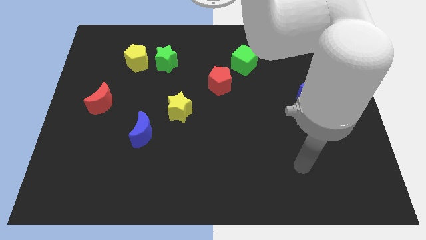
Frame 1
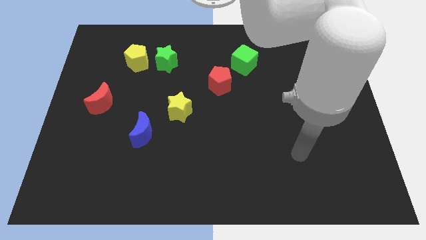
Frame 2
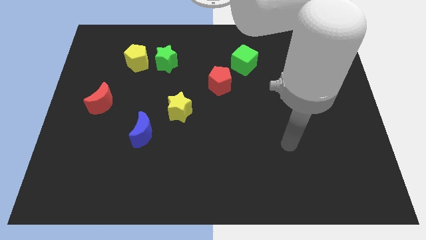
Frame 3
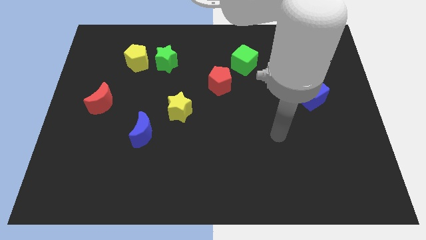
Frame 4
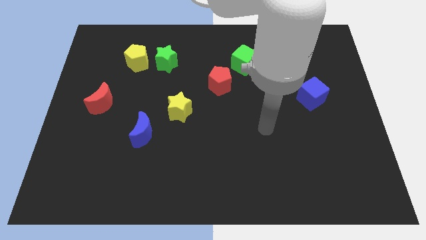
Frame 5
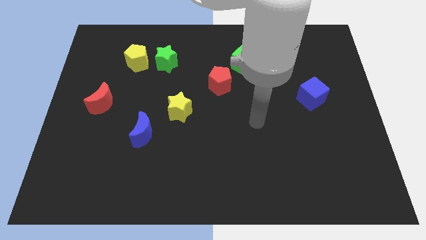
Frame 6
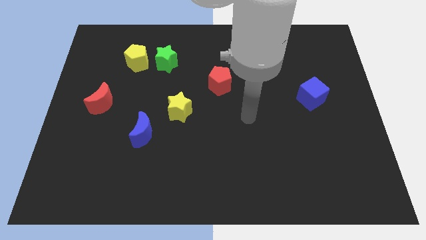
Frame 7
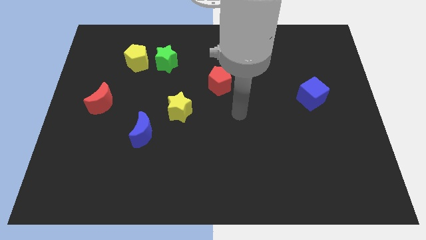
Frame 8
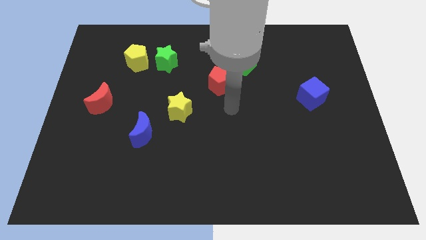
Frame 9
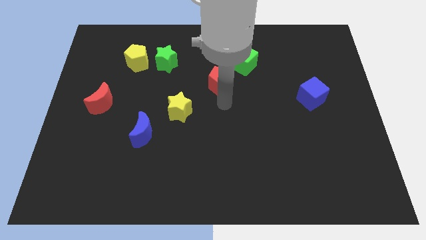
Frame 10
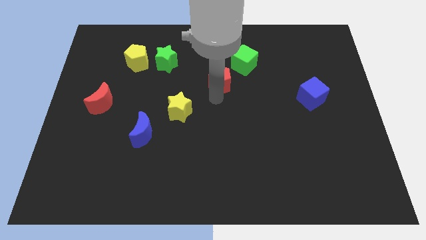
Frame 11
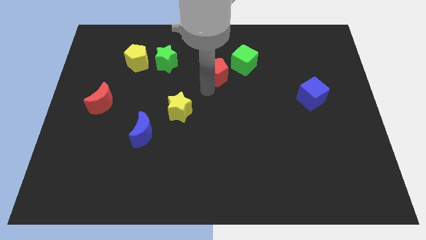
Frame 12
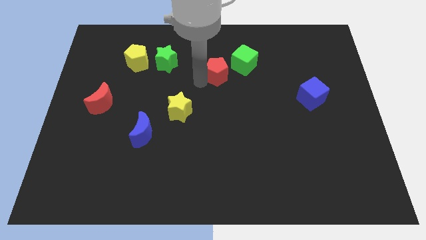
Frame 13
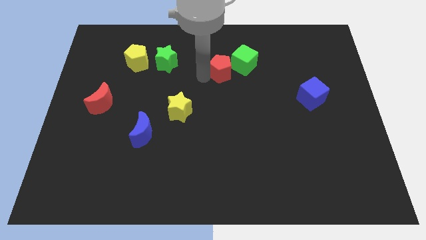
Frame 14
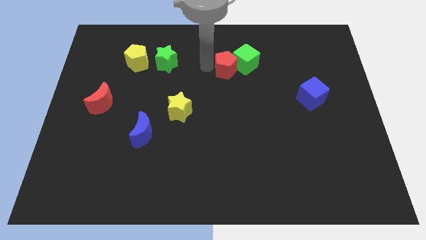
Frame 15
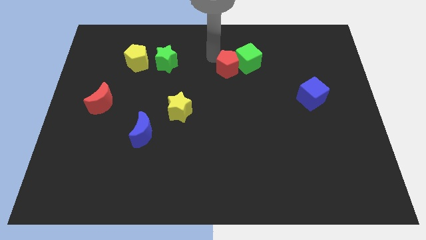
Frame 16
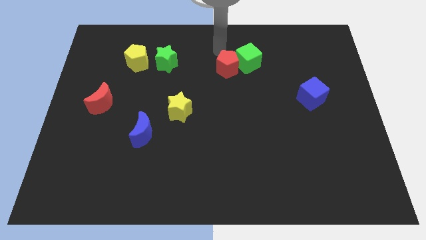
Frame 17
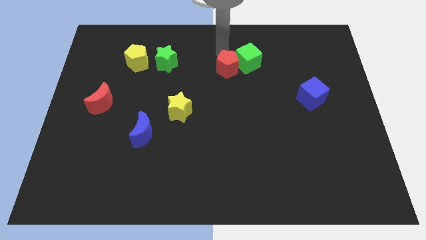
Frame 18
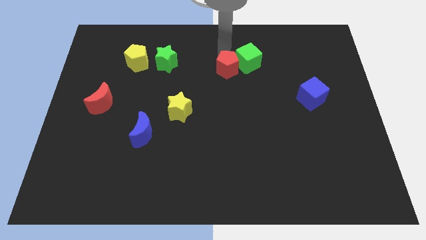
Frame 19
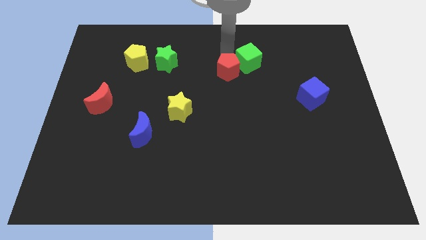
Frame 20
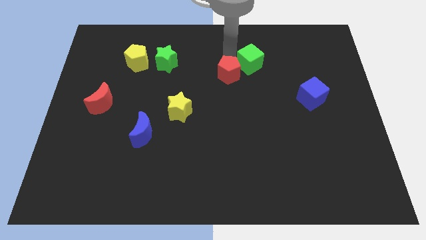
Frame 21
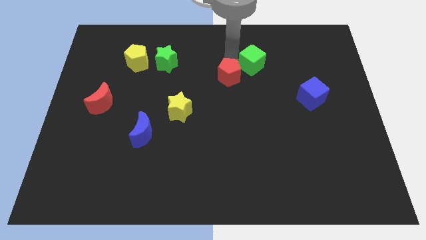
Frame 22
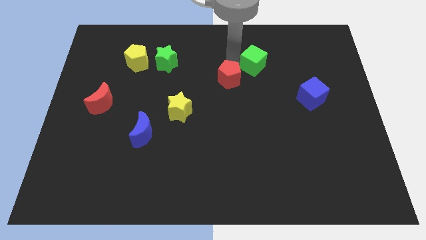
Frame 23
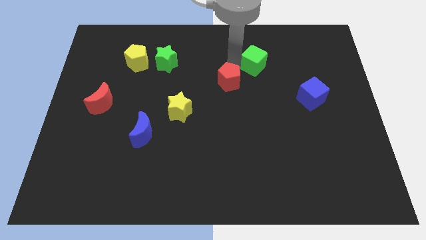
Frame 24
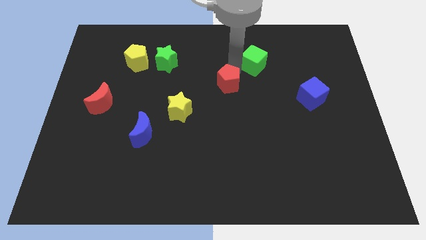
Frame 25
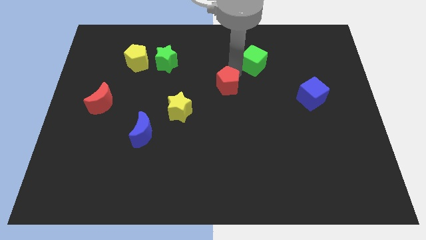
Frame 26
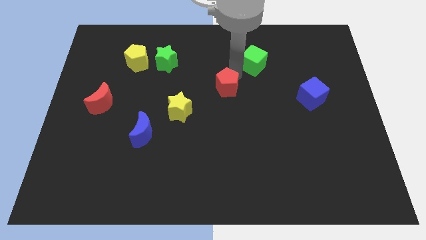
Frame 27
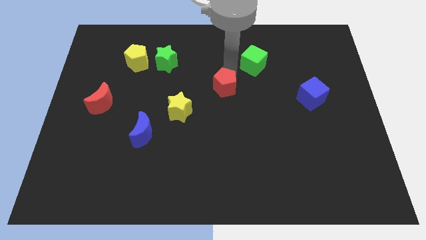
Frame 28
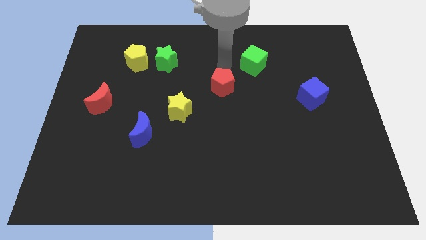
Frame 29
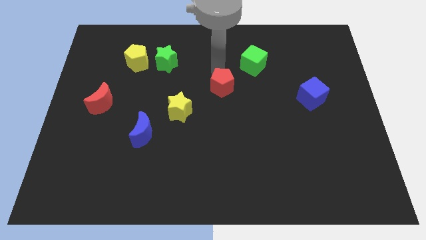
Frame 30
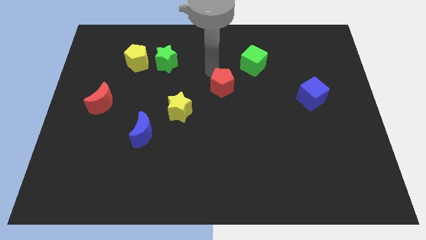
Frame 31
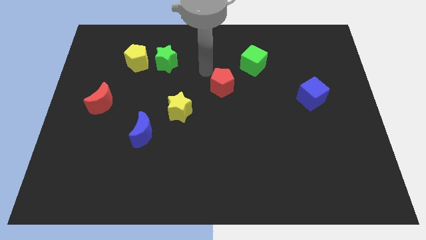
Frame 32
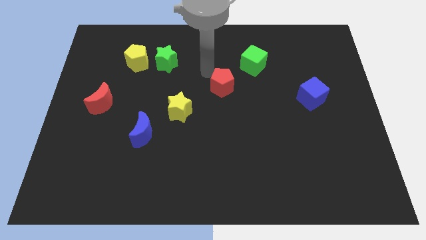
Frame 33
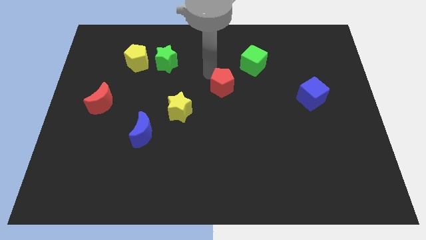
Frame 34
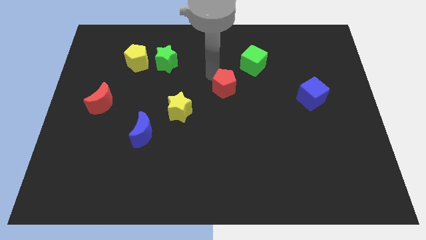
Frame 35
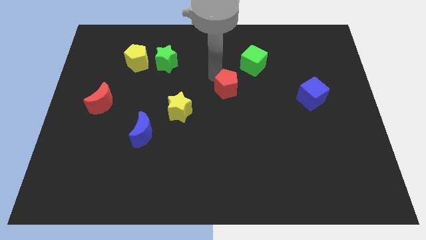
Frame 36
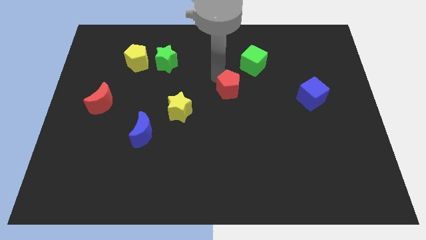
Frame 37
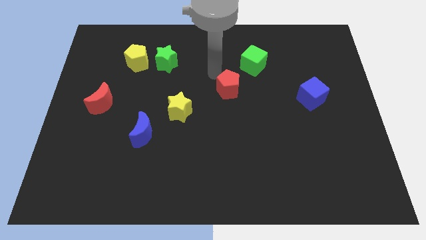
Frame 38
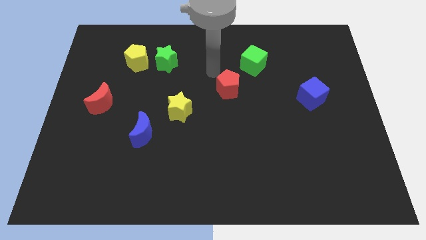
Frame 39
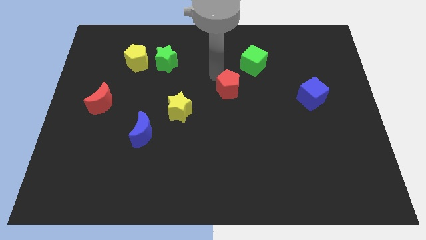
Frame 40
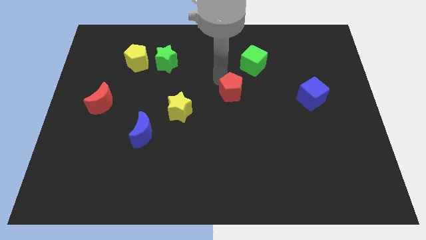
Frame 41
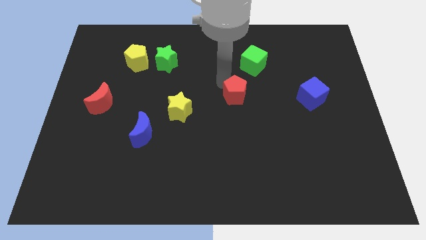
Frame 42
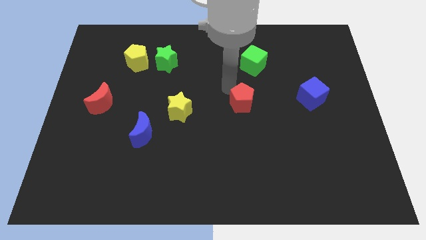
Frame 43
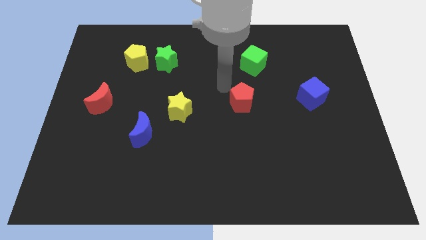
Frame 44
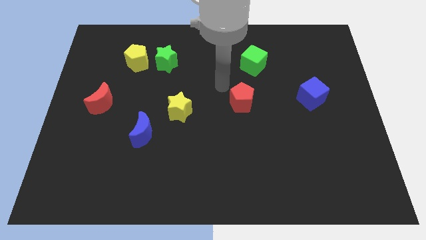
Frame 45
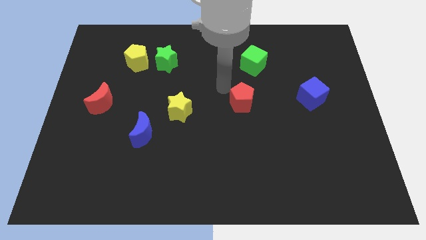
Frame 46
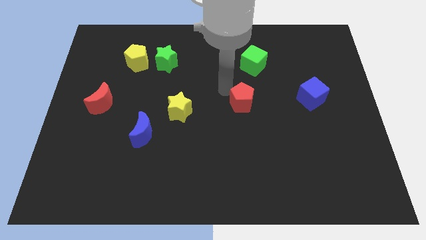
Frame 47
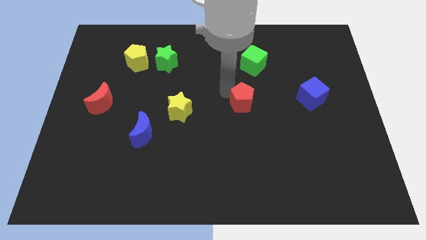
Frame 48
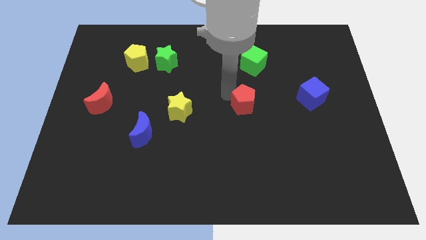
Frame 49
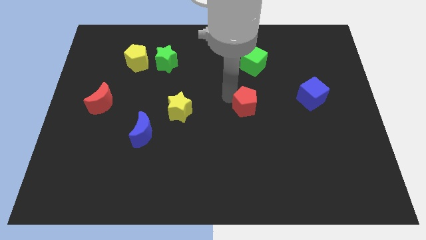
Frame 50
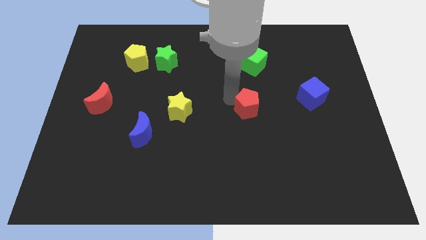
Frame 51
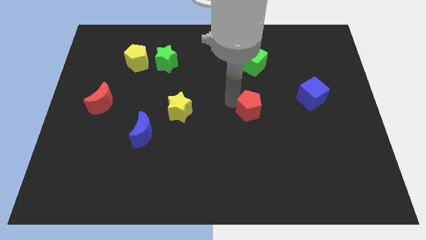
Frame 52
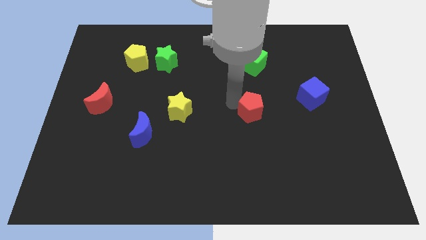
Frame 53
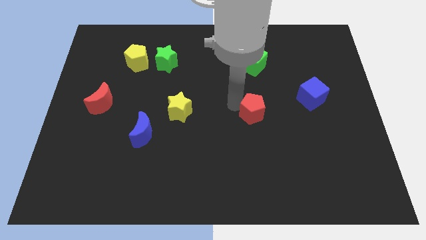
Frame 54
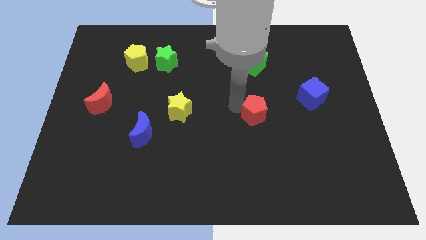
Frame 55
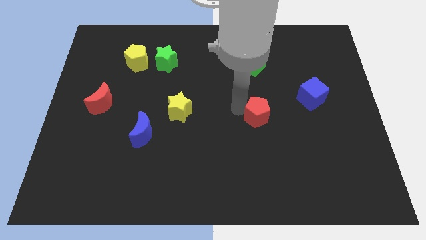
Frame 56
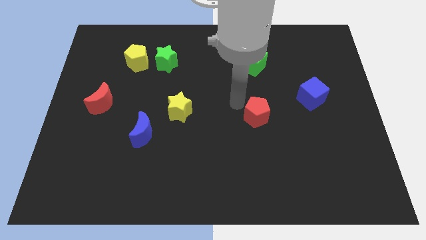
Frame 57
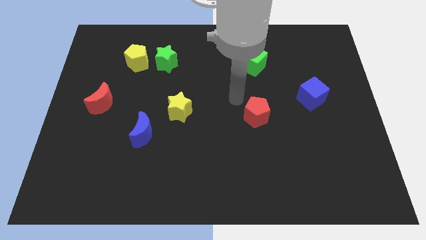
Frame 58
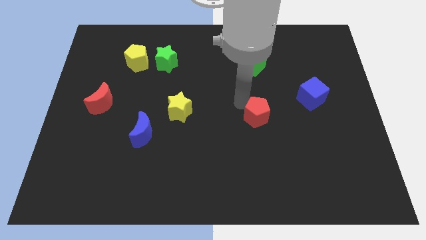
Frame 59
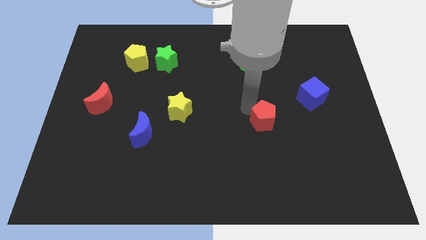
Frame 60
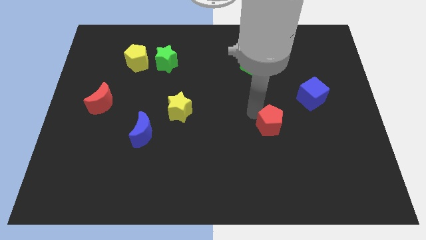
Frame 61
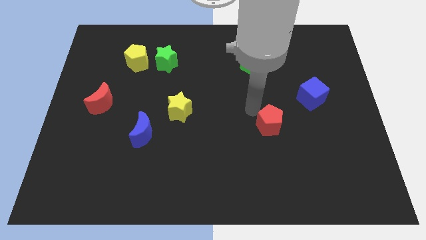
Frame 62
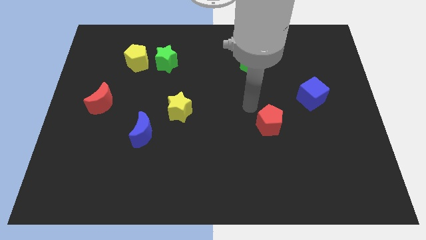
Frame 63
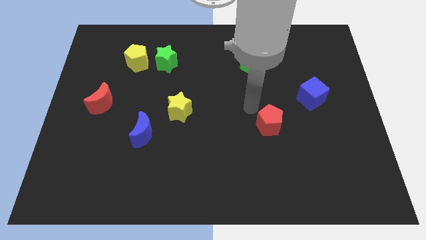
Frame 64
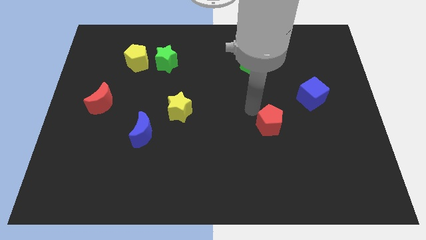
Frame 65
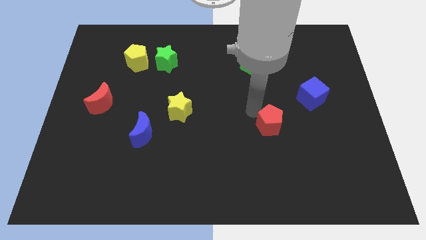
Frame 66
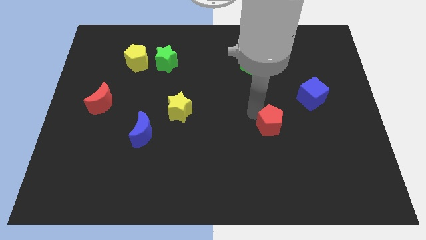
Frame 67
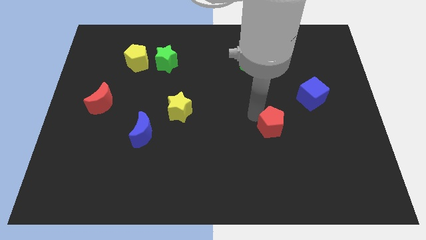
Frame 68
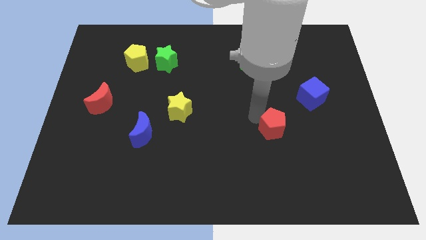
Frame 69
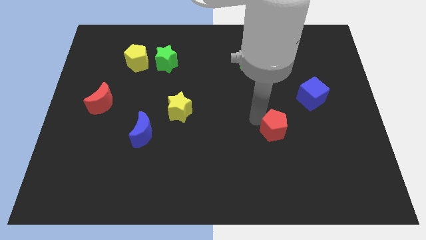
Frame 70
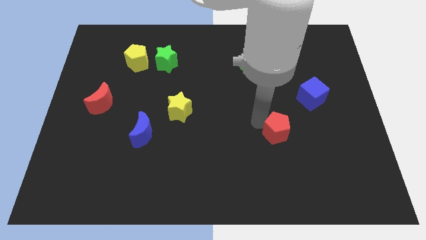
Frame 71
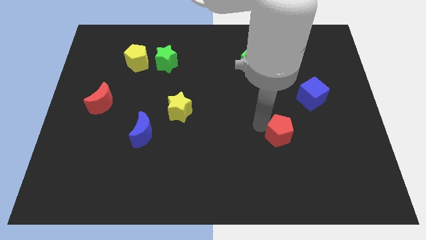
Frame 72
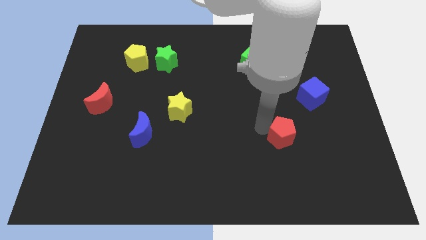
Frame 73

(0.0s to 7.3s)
move the red pentagon down and then right

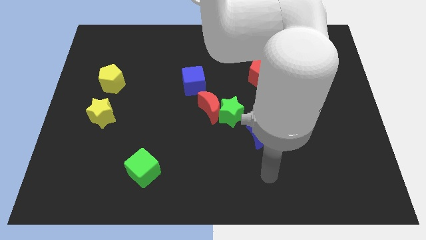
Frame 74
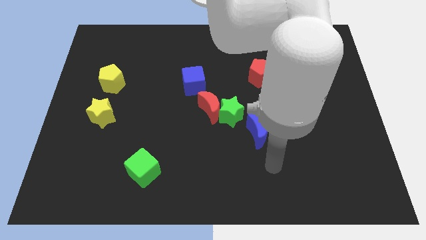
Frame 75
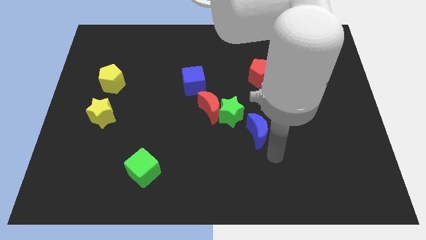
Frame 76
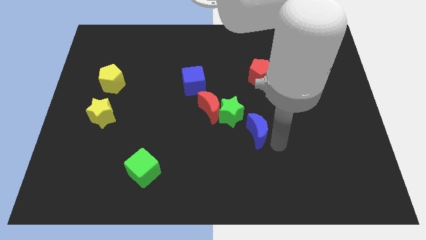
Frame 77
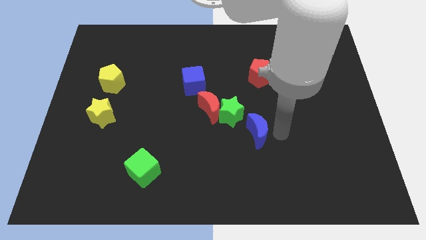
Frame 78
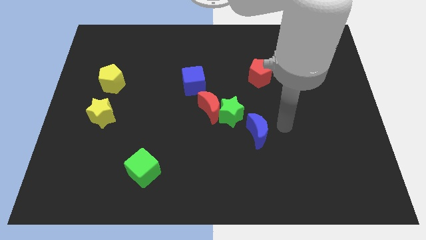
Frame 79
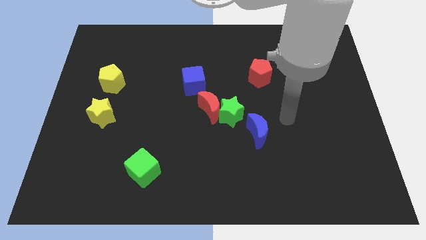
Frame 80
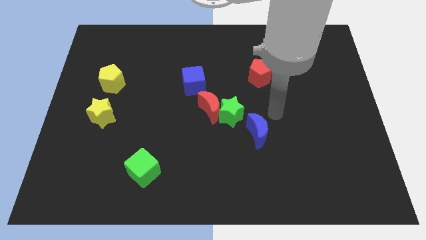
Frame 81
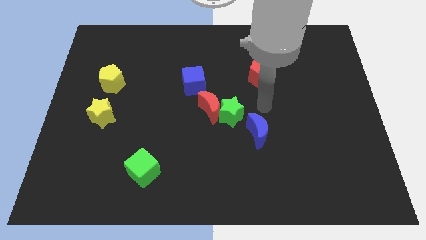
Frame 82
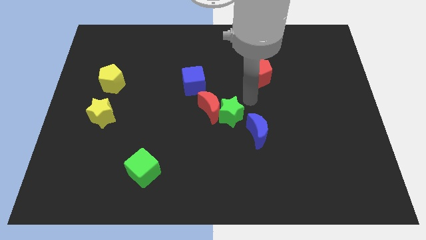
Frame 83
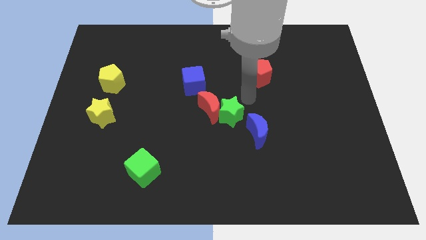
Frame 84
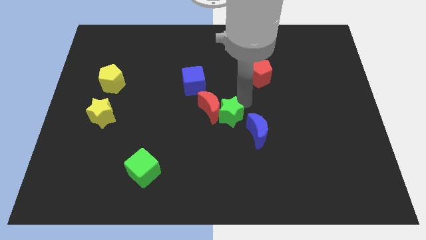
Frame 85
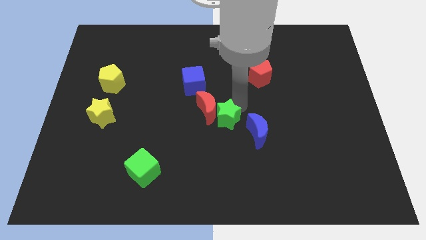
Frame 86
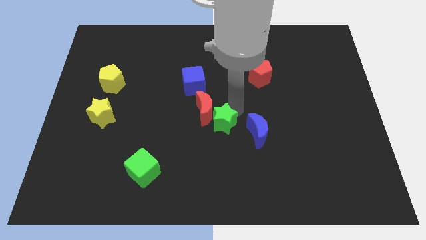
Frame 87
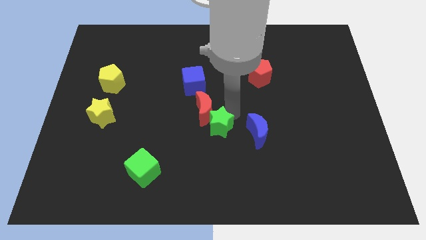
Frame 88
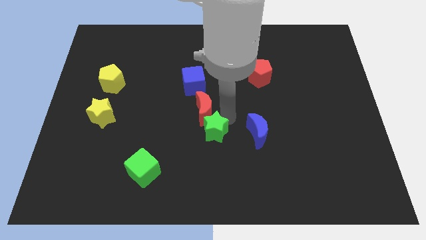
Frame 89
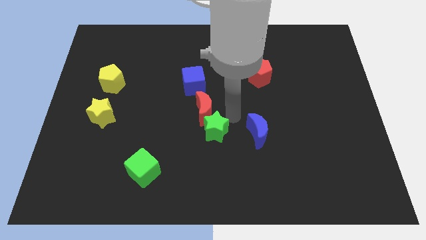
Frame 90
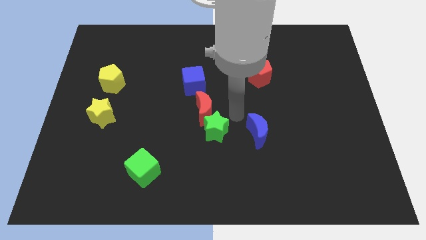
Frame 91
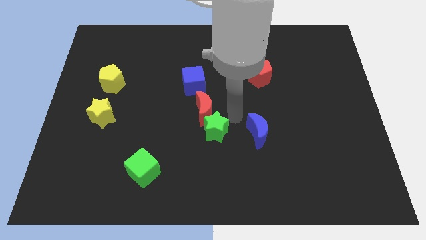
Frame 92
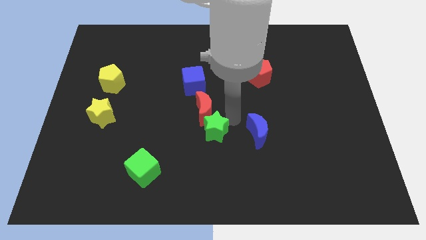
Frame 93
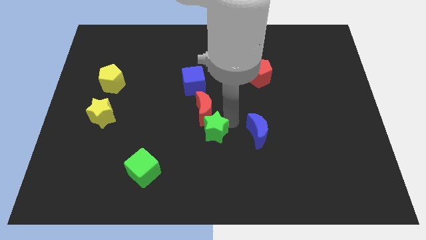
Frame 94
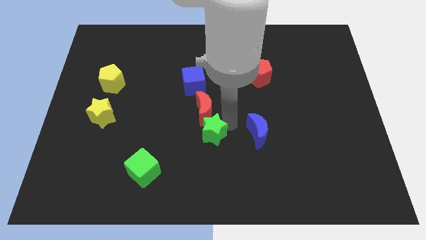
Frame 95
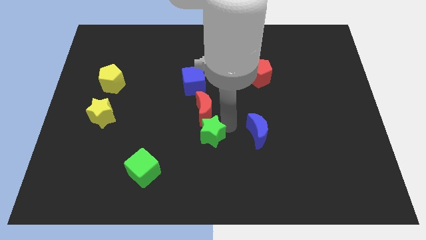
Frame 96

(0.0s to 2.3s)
slide the green star slightly downwards and then to the left
